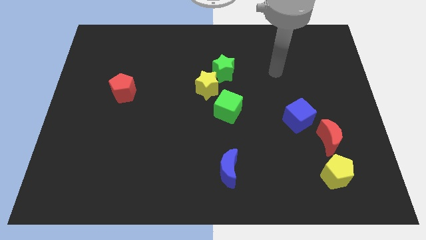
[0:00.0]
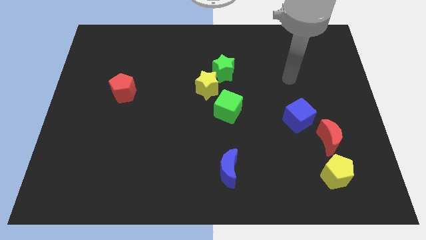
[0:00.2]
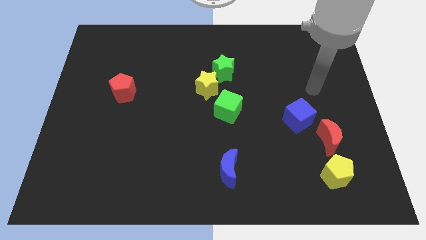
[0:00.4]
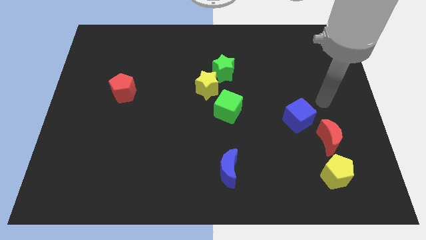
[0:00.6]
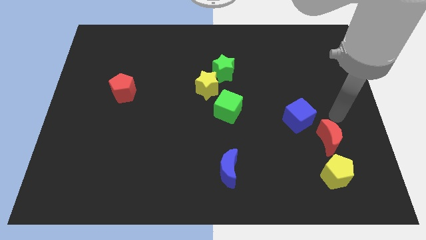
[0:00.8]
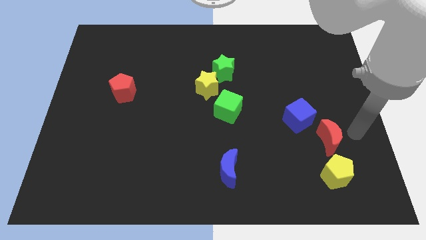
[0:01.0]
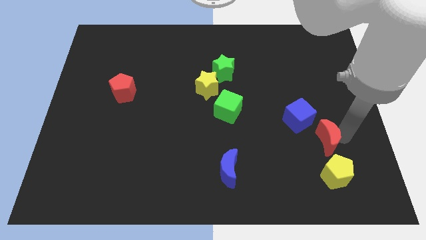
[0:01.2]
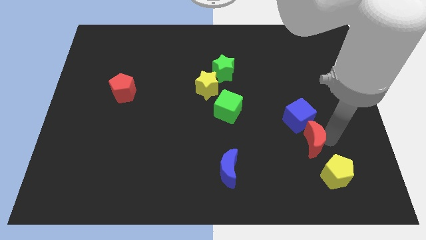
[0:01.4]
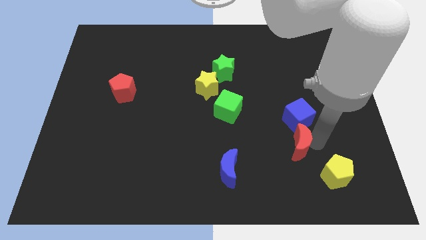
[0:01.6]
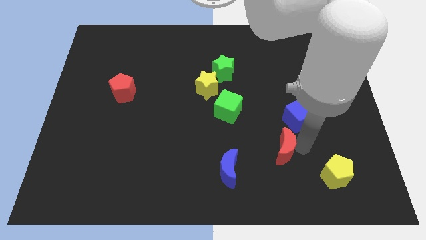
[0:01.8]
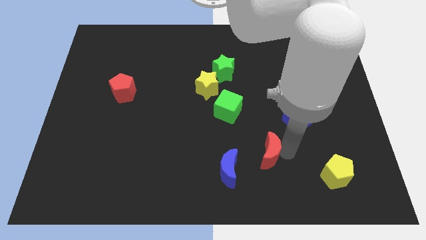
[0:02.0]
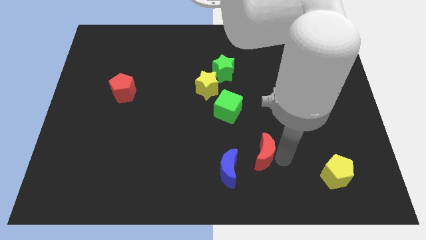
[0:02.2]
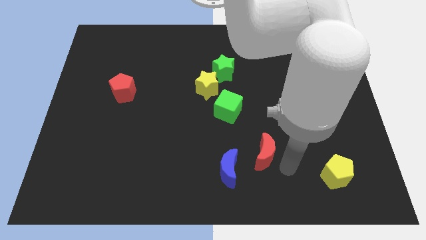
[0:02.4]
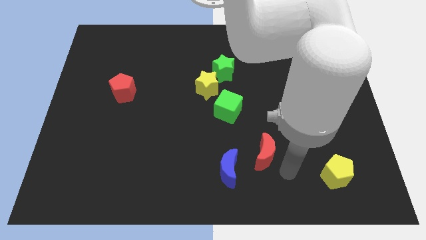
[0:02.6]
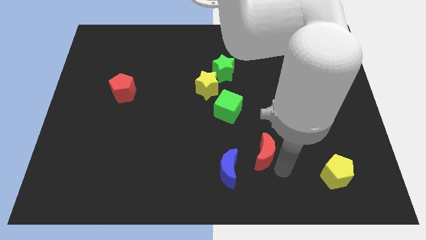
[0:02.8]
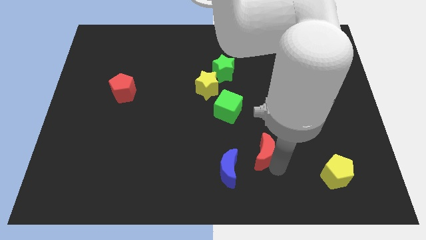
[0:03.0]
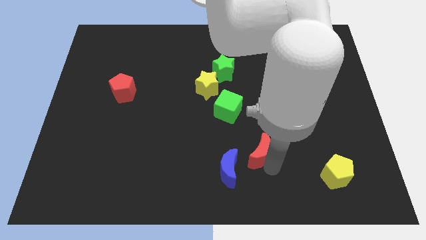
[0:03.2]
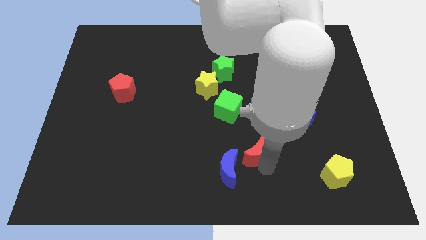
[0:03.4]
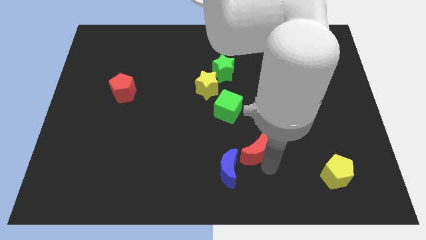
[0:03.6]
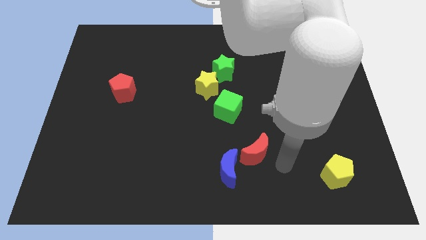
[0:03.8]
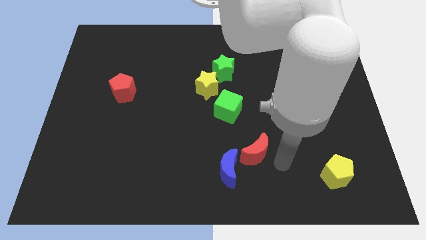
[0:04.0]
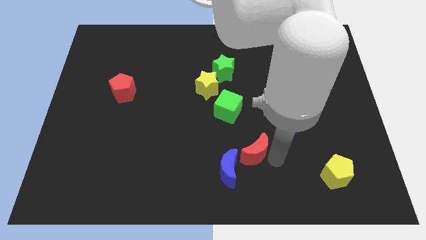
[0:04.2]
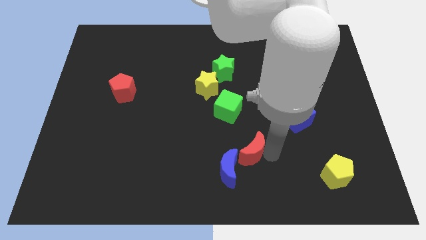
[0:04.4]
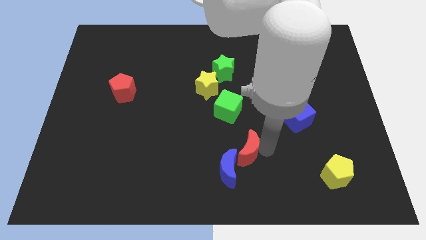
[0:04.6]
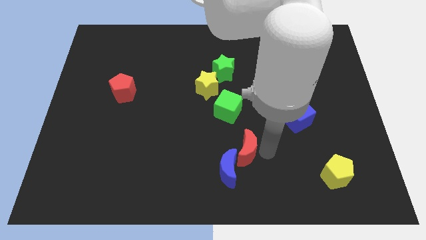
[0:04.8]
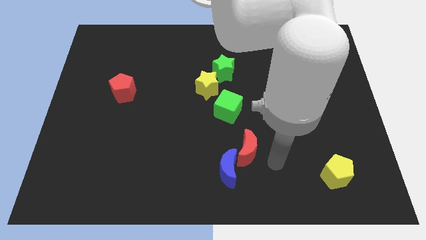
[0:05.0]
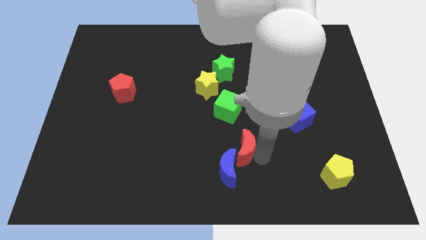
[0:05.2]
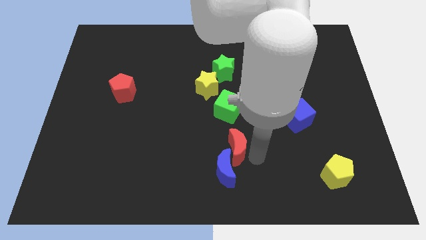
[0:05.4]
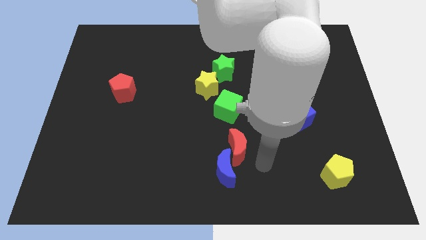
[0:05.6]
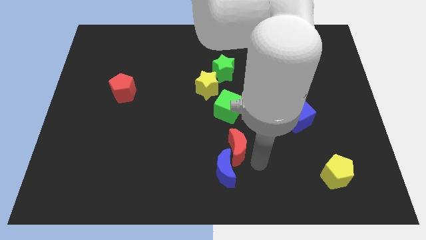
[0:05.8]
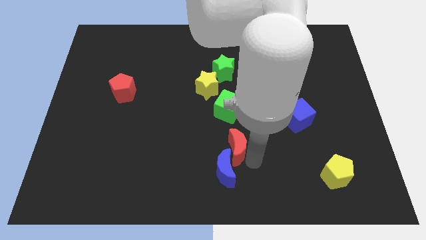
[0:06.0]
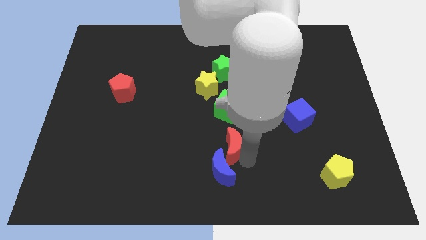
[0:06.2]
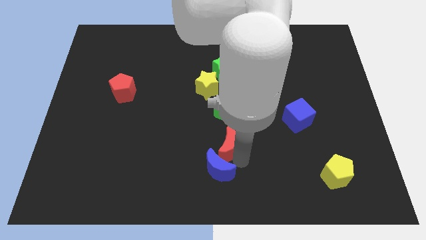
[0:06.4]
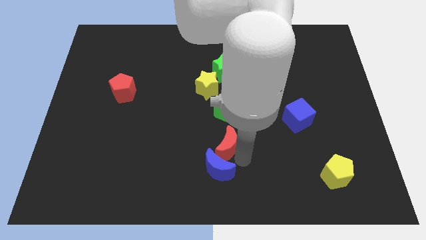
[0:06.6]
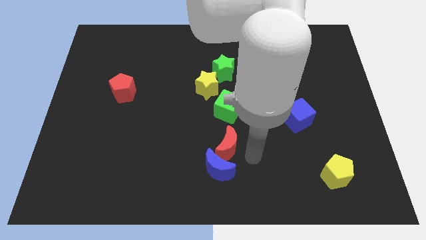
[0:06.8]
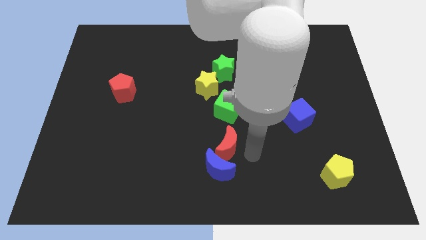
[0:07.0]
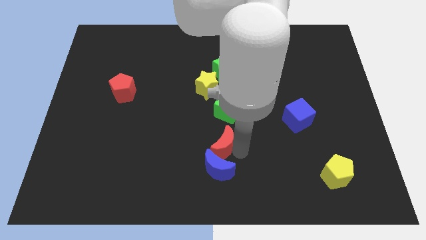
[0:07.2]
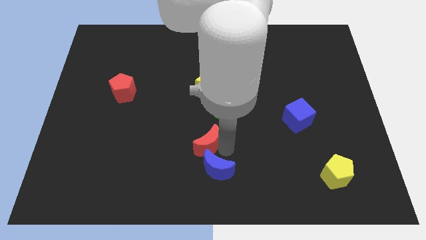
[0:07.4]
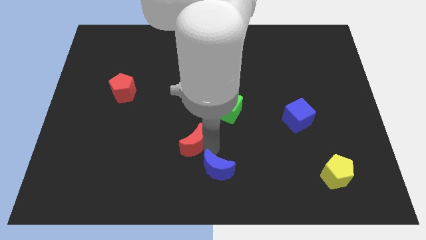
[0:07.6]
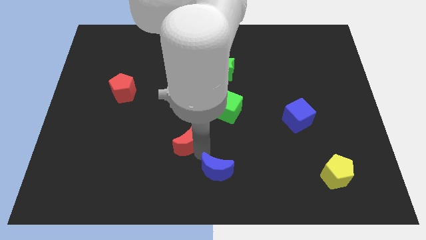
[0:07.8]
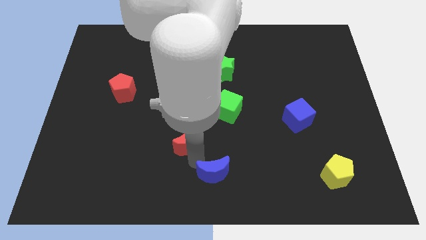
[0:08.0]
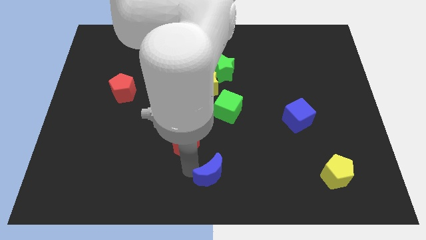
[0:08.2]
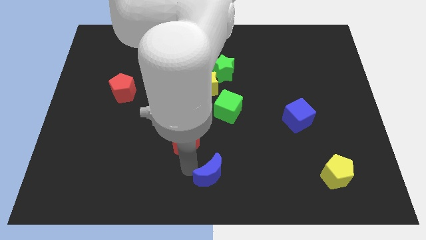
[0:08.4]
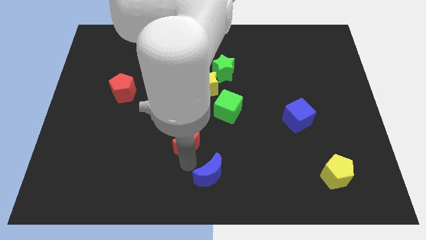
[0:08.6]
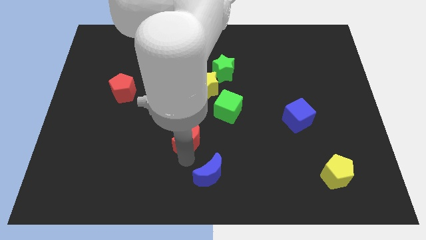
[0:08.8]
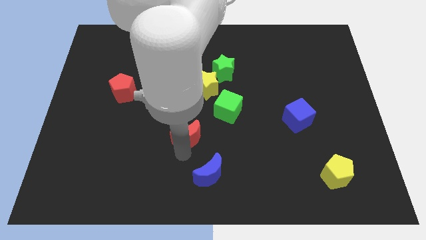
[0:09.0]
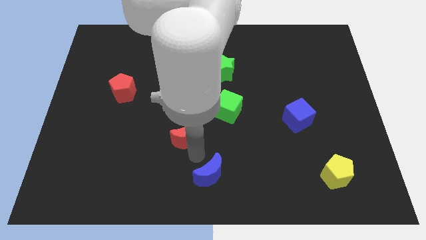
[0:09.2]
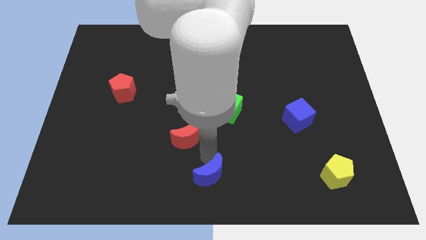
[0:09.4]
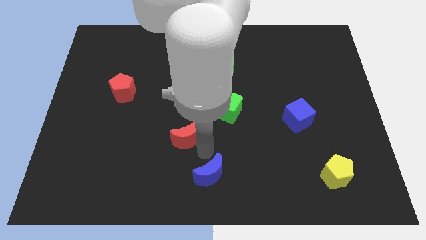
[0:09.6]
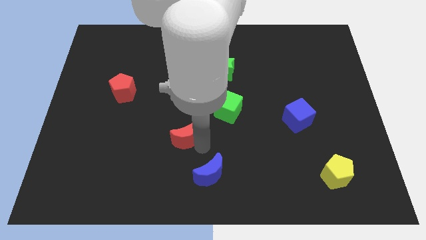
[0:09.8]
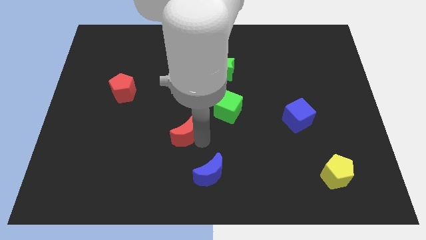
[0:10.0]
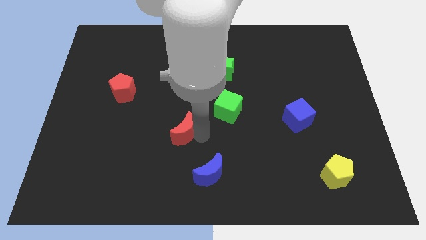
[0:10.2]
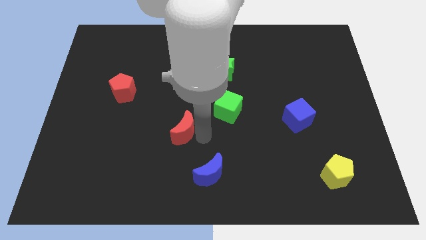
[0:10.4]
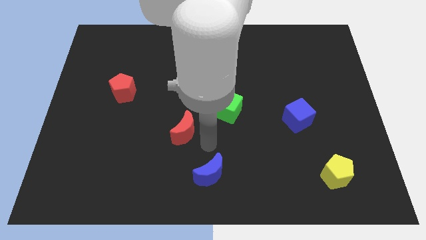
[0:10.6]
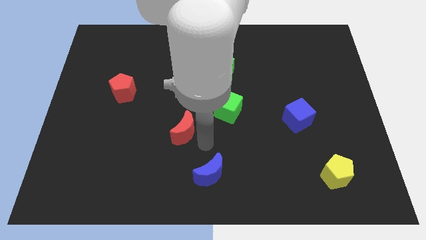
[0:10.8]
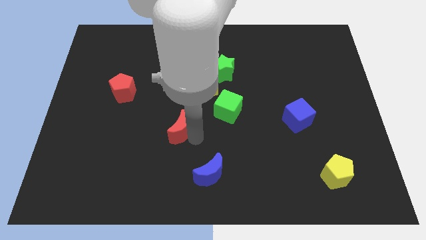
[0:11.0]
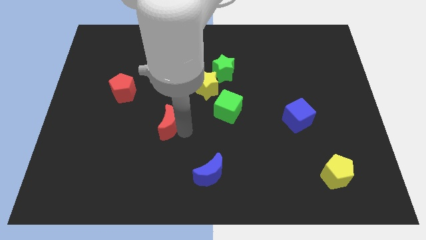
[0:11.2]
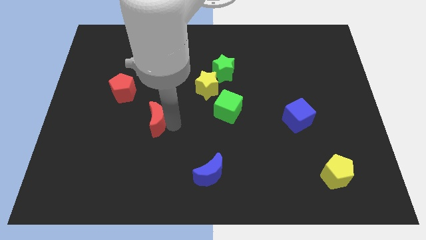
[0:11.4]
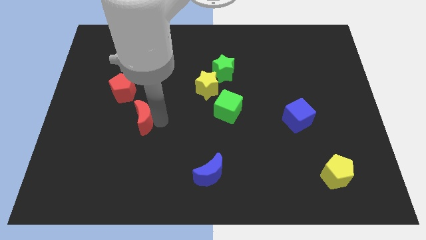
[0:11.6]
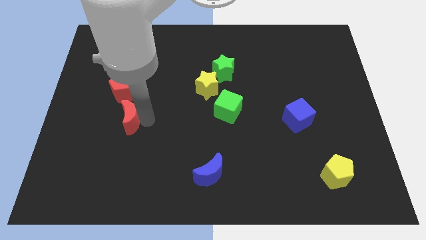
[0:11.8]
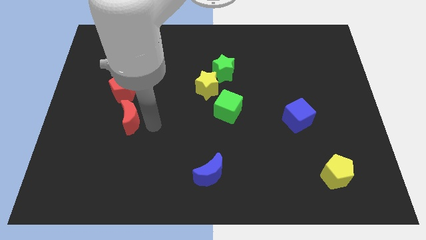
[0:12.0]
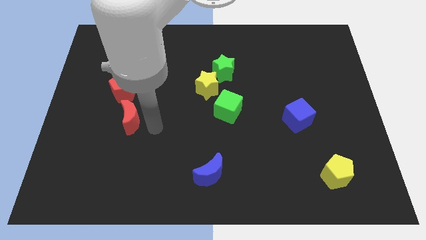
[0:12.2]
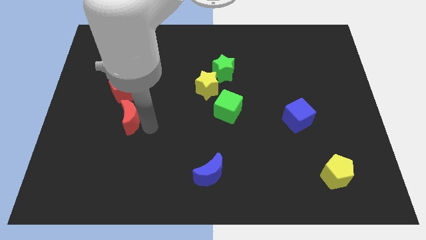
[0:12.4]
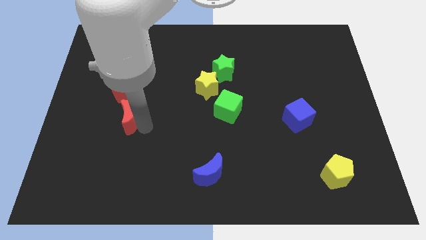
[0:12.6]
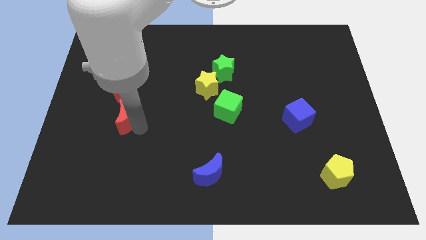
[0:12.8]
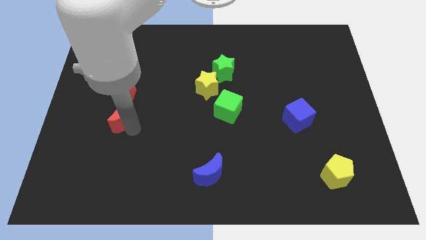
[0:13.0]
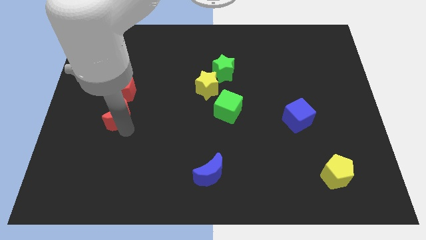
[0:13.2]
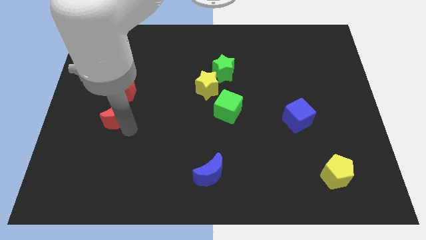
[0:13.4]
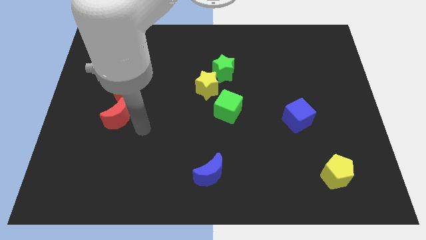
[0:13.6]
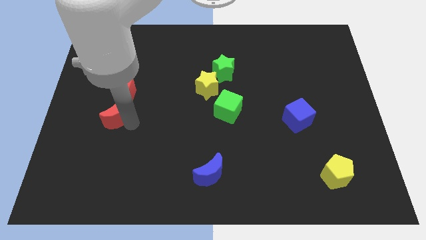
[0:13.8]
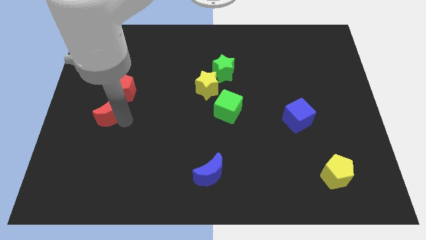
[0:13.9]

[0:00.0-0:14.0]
move the red moon to the bottom left of the red pentagon
